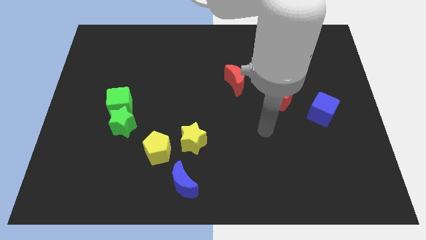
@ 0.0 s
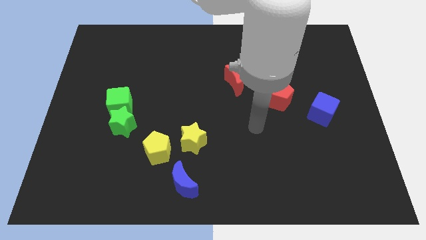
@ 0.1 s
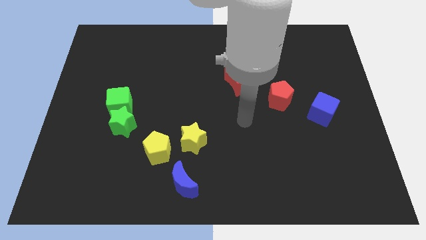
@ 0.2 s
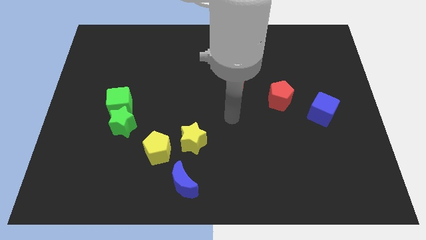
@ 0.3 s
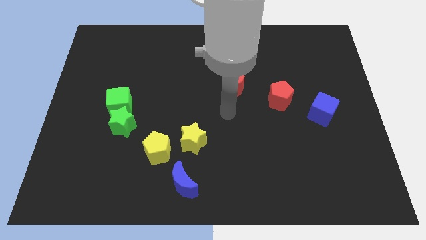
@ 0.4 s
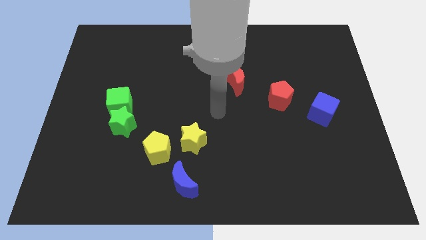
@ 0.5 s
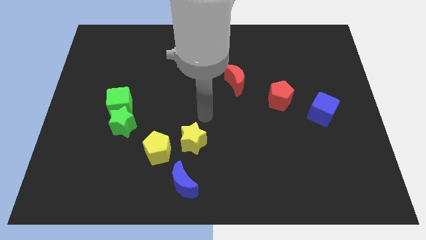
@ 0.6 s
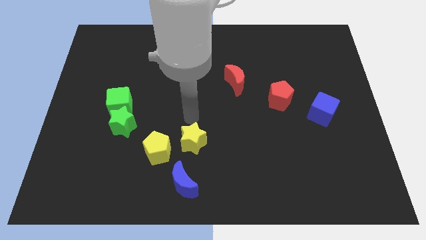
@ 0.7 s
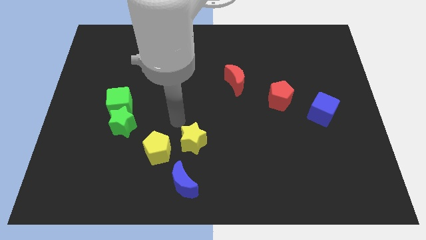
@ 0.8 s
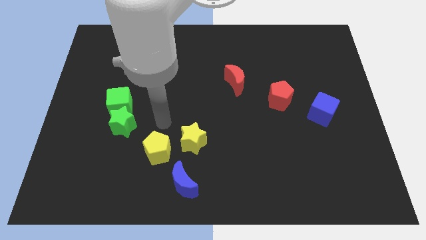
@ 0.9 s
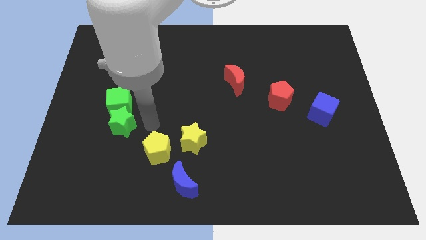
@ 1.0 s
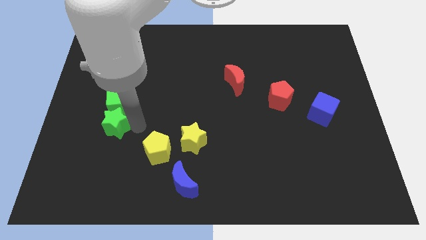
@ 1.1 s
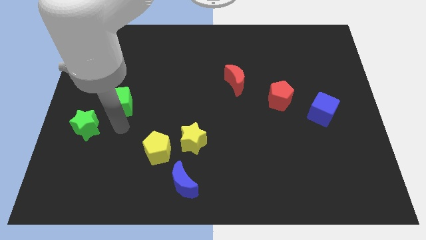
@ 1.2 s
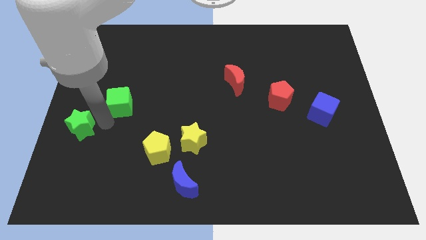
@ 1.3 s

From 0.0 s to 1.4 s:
pull the green cube apart from the green star

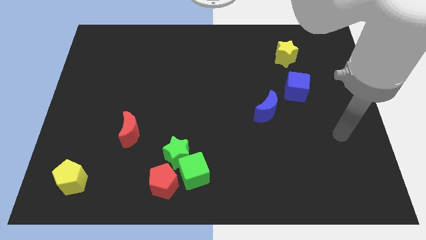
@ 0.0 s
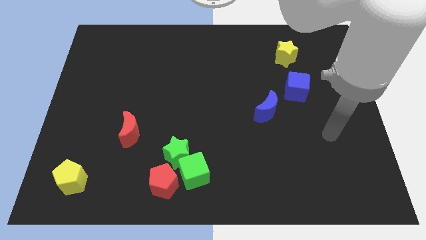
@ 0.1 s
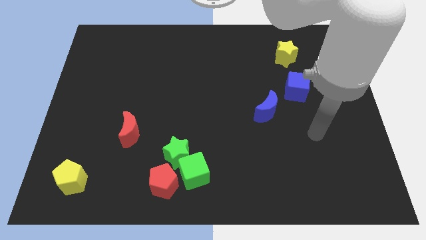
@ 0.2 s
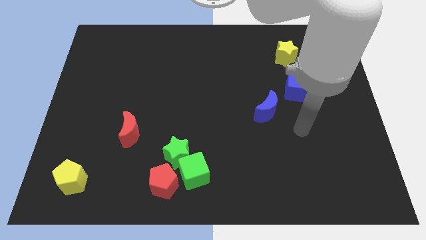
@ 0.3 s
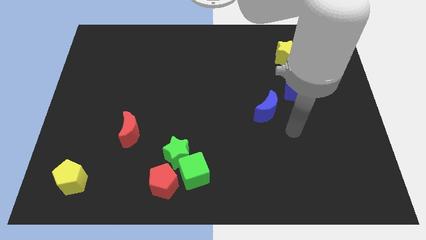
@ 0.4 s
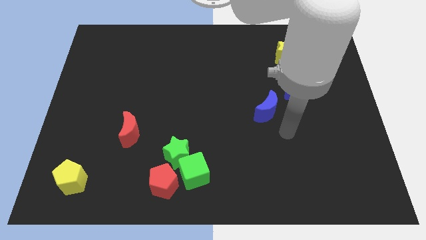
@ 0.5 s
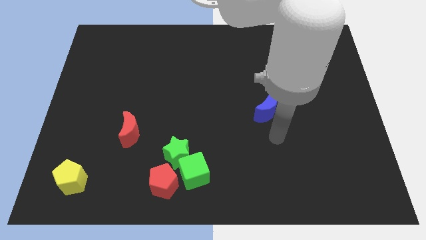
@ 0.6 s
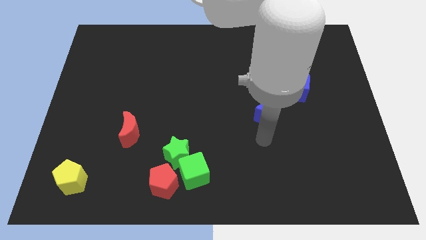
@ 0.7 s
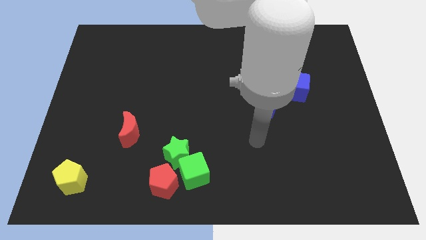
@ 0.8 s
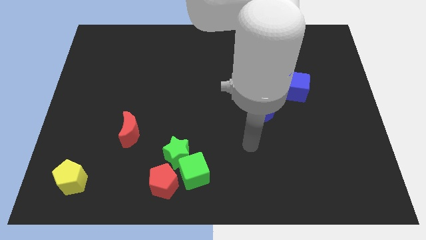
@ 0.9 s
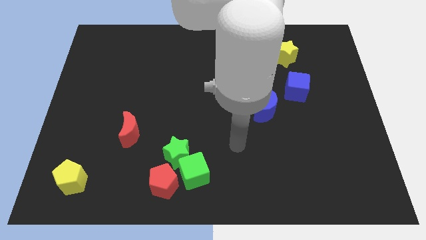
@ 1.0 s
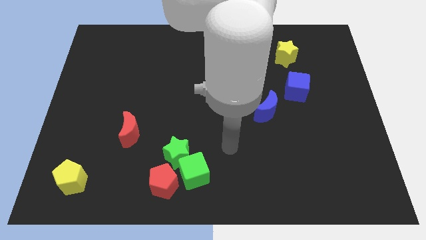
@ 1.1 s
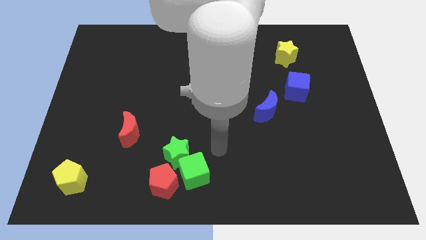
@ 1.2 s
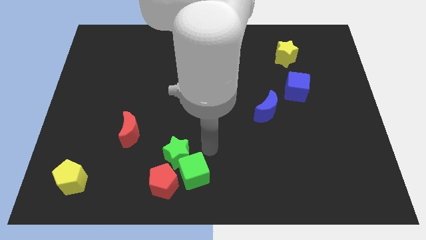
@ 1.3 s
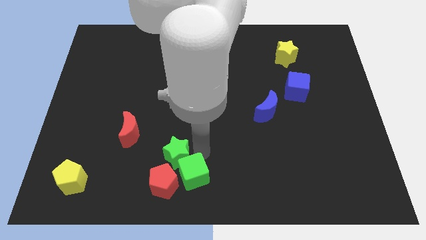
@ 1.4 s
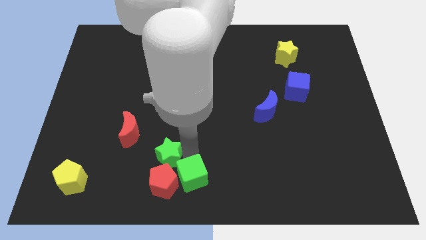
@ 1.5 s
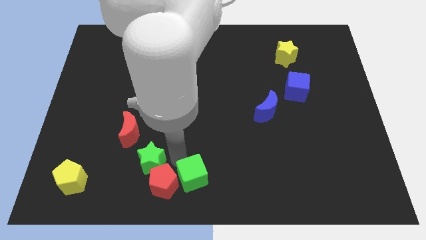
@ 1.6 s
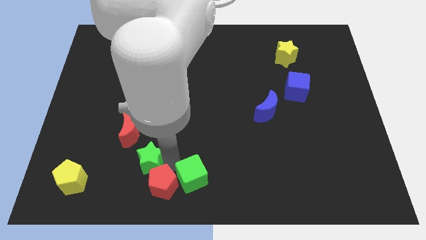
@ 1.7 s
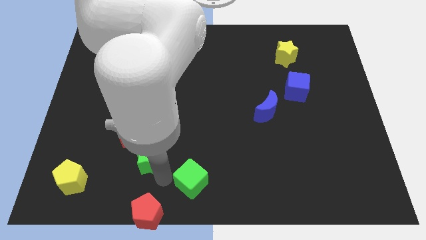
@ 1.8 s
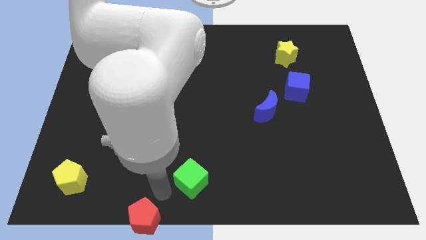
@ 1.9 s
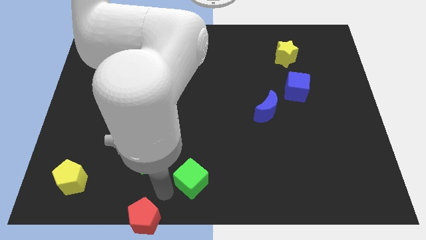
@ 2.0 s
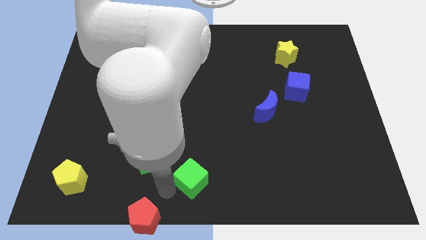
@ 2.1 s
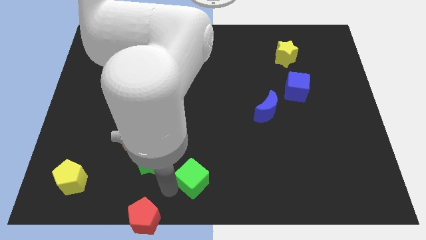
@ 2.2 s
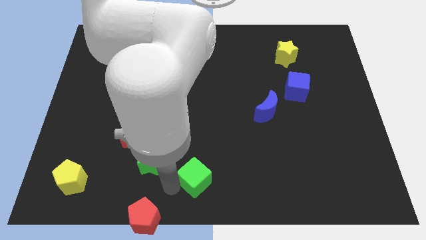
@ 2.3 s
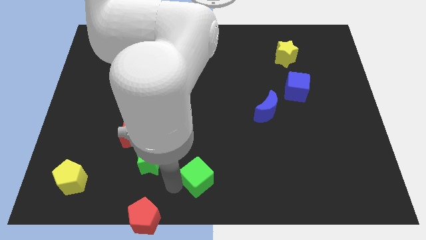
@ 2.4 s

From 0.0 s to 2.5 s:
move the green cube away from the green star and red pentagon

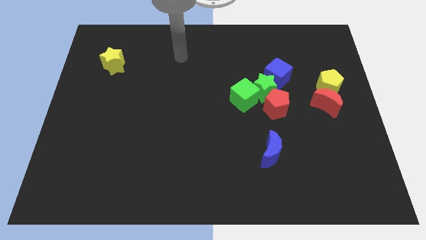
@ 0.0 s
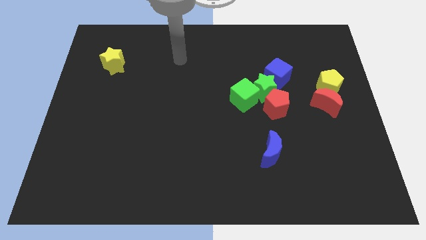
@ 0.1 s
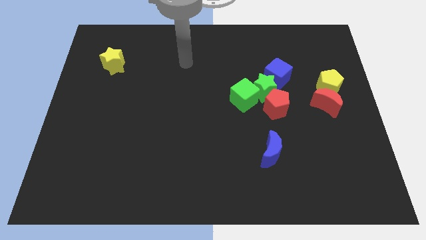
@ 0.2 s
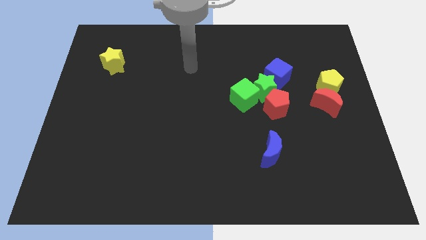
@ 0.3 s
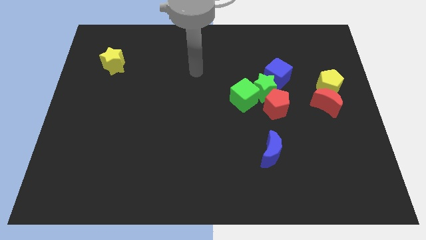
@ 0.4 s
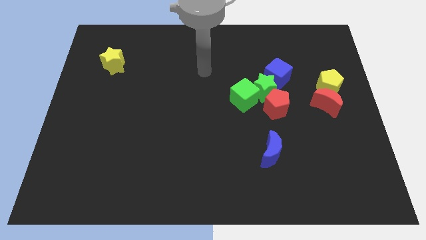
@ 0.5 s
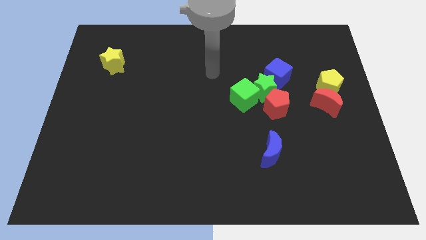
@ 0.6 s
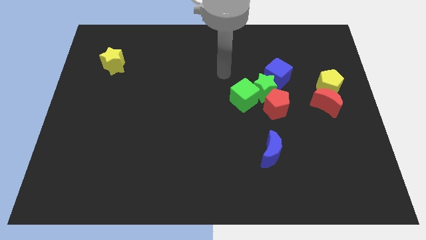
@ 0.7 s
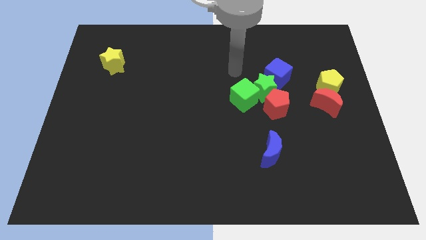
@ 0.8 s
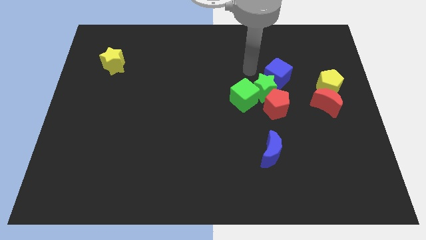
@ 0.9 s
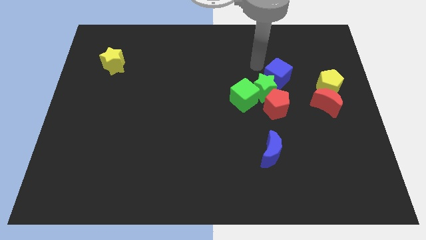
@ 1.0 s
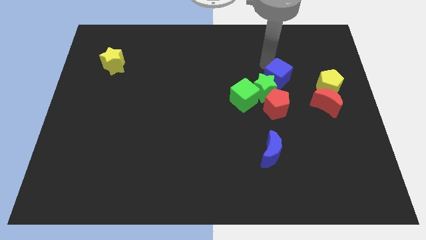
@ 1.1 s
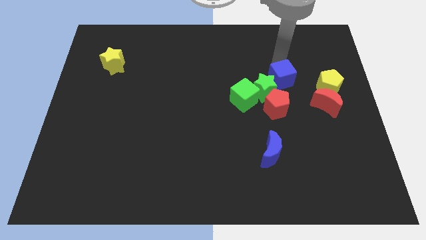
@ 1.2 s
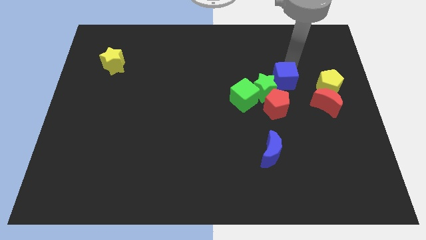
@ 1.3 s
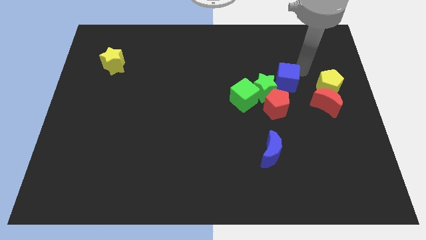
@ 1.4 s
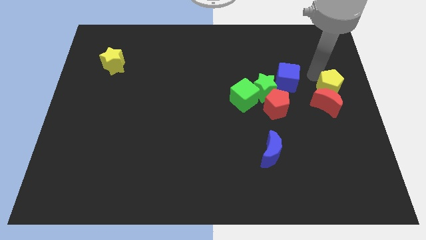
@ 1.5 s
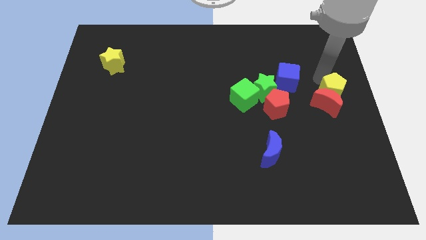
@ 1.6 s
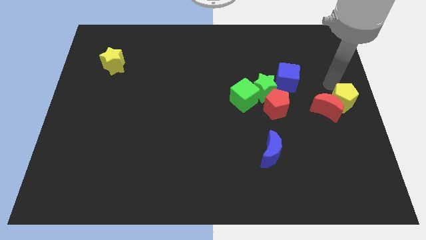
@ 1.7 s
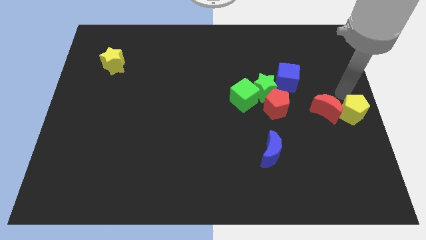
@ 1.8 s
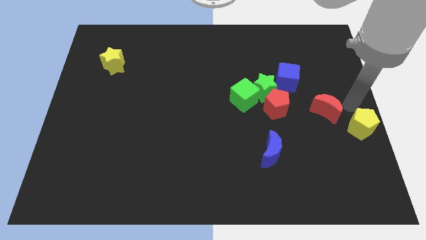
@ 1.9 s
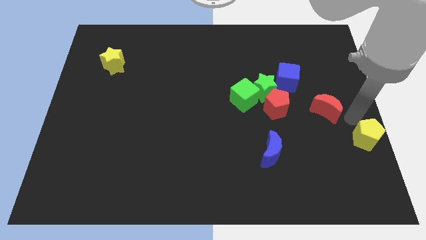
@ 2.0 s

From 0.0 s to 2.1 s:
separate the red moon from the yellow pentagon

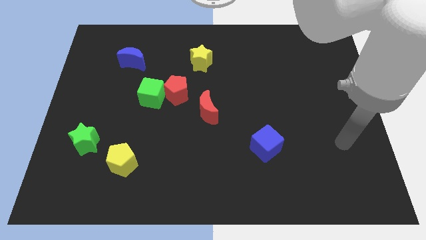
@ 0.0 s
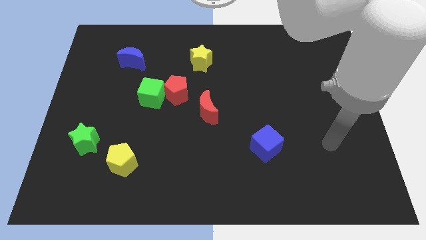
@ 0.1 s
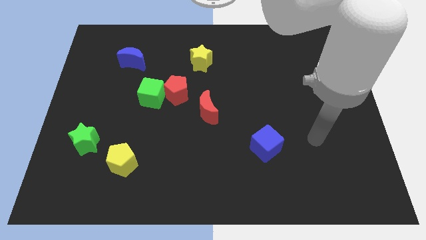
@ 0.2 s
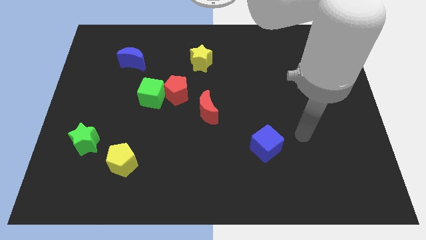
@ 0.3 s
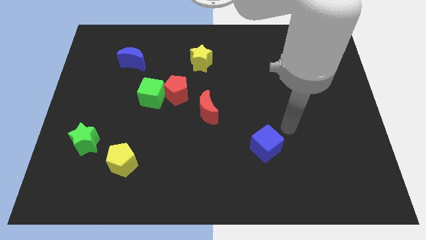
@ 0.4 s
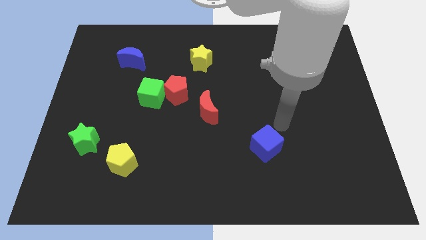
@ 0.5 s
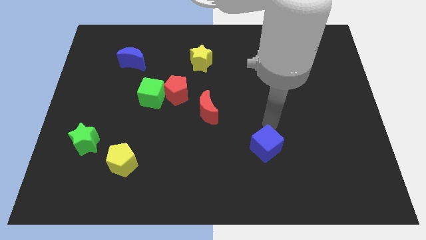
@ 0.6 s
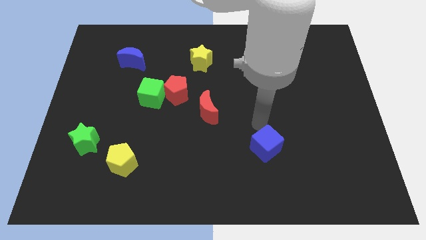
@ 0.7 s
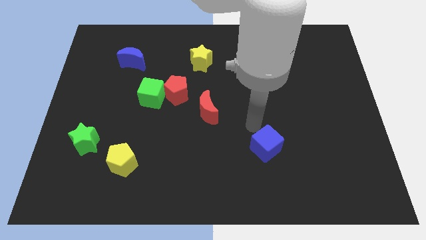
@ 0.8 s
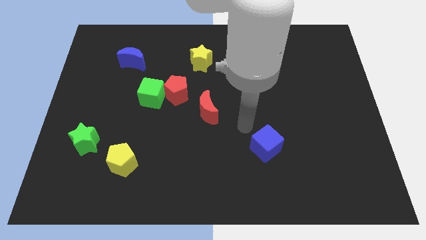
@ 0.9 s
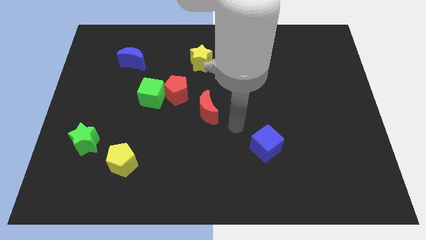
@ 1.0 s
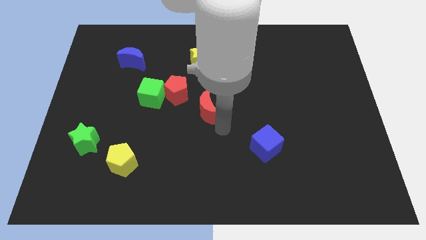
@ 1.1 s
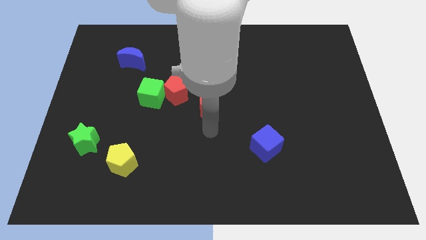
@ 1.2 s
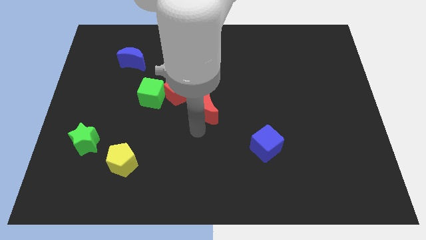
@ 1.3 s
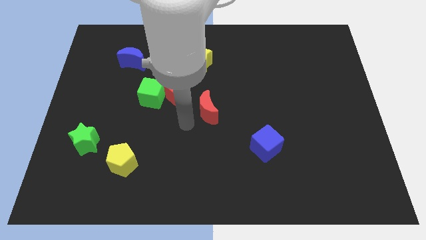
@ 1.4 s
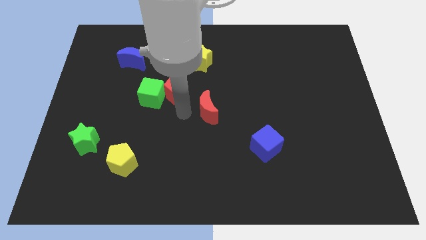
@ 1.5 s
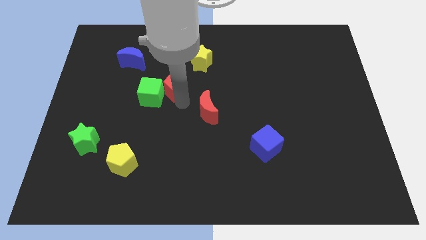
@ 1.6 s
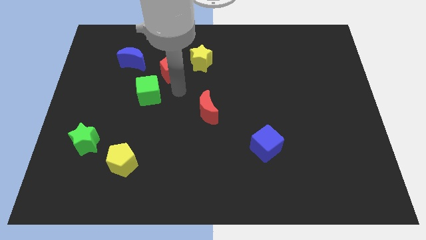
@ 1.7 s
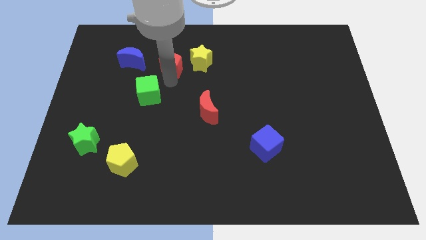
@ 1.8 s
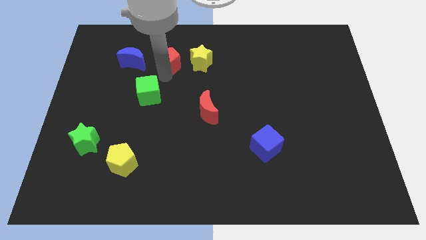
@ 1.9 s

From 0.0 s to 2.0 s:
pull the green cube apart from the red pentagon

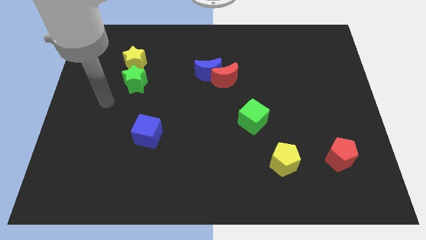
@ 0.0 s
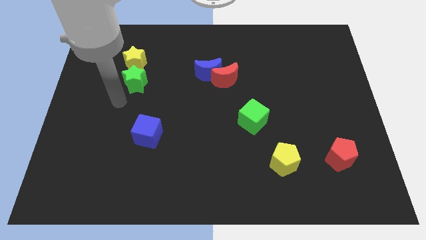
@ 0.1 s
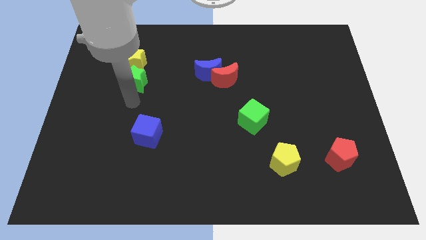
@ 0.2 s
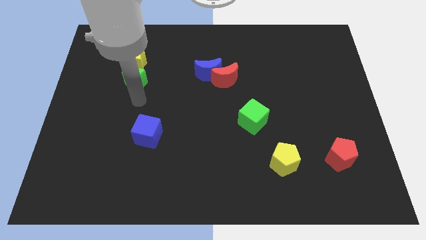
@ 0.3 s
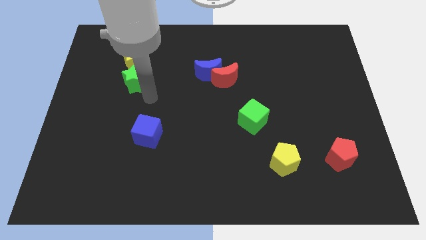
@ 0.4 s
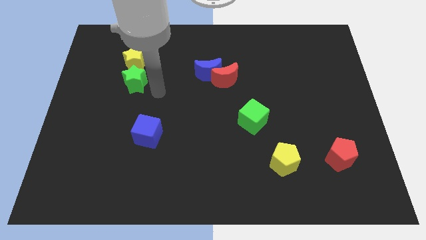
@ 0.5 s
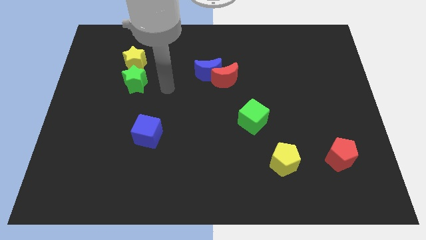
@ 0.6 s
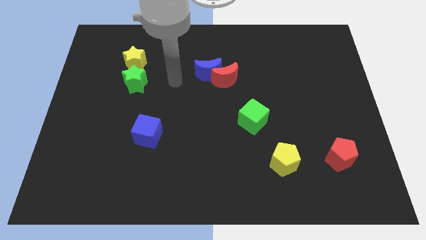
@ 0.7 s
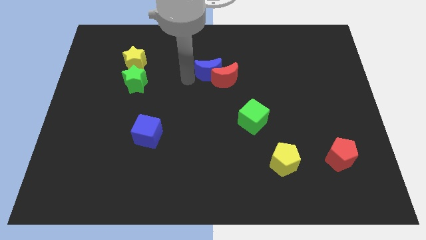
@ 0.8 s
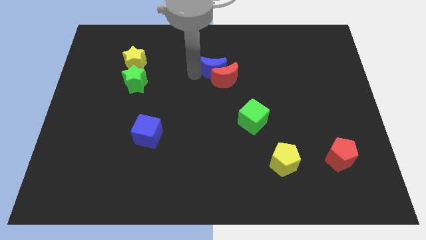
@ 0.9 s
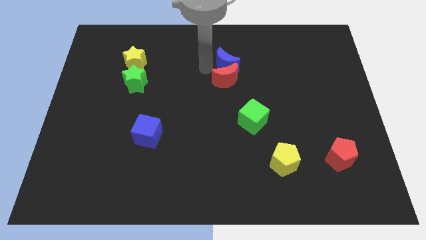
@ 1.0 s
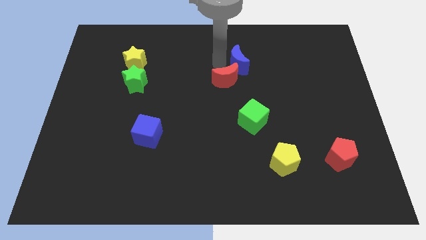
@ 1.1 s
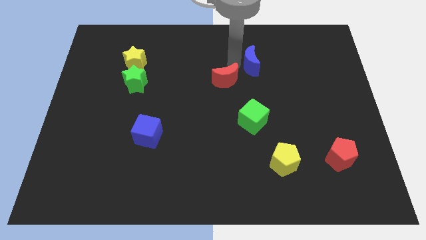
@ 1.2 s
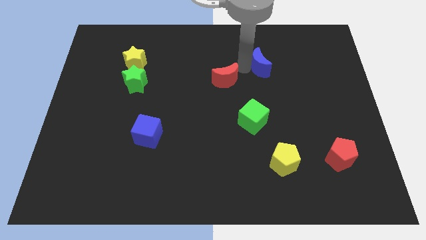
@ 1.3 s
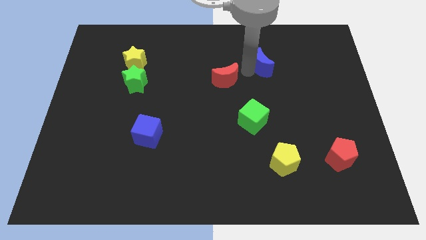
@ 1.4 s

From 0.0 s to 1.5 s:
pull the red moon apart from the blue moon
